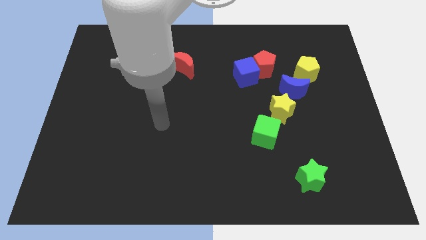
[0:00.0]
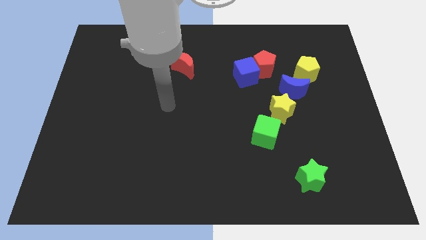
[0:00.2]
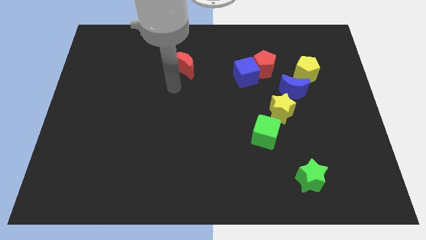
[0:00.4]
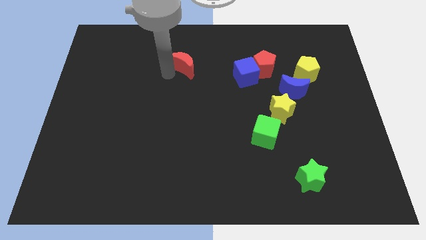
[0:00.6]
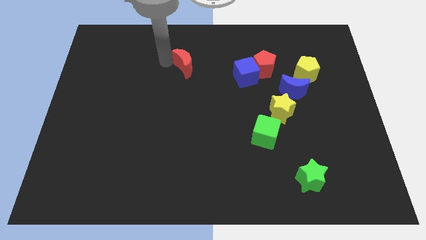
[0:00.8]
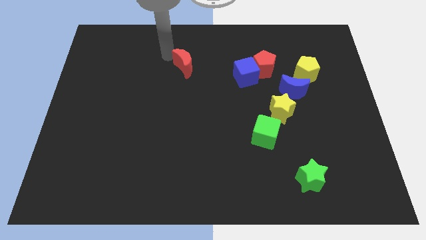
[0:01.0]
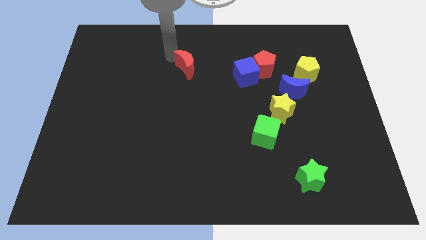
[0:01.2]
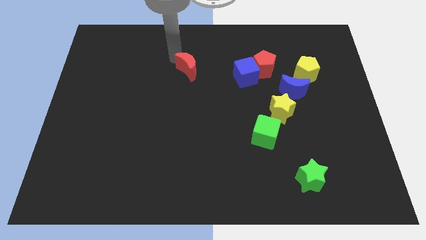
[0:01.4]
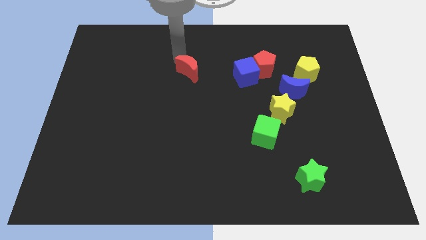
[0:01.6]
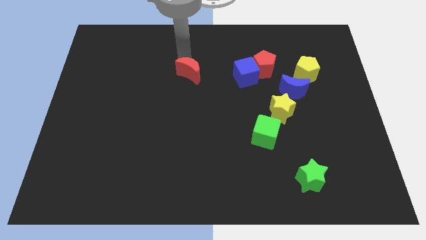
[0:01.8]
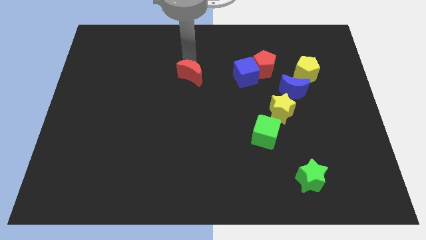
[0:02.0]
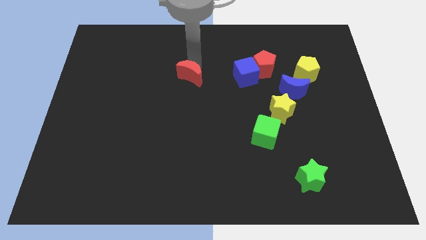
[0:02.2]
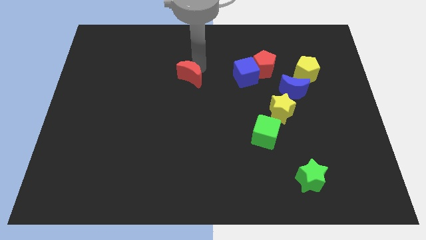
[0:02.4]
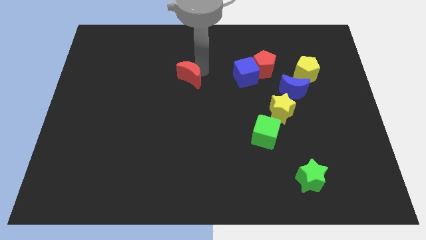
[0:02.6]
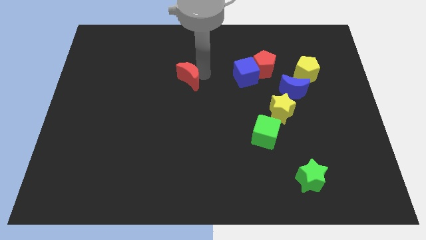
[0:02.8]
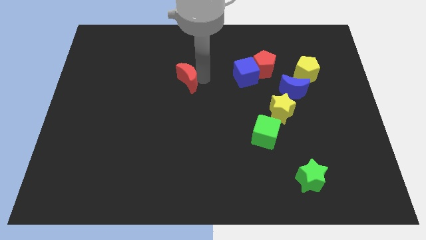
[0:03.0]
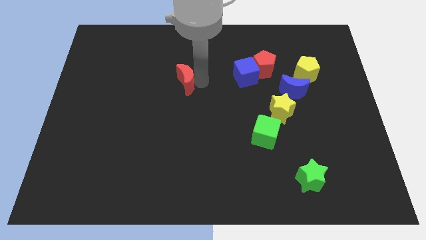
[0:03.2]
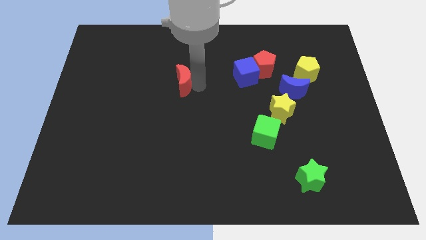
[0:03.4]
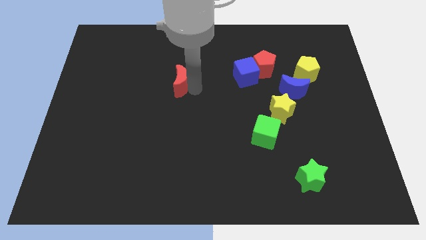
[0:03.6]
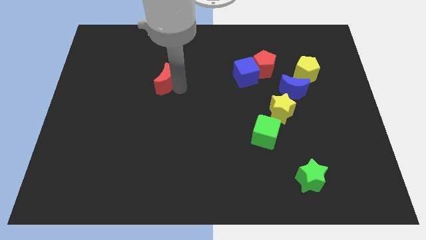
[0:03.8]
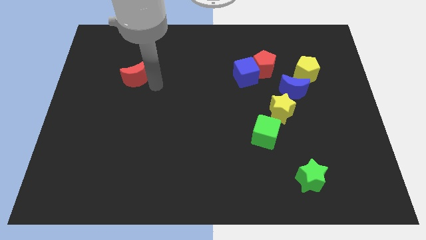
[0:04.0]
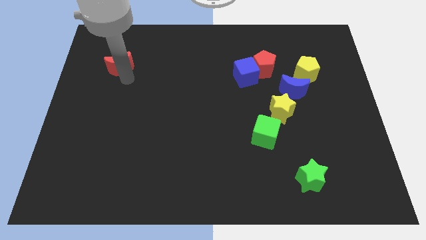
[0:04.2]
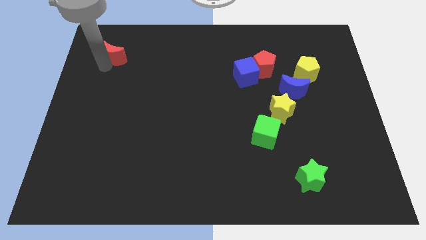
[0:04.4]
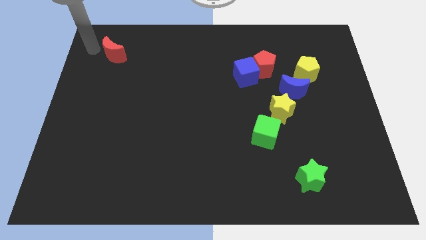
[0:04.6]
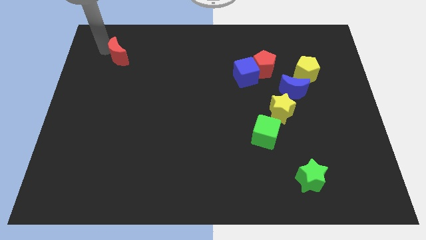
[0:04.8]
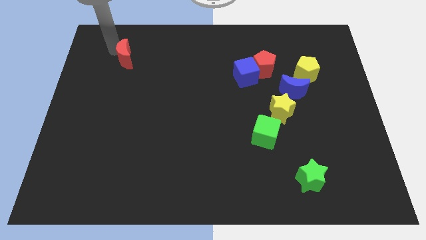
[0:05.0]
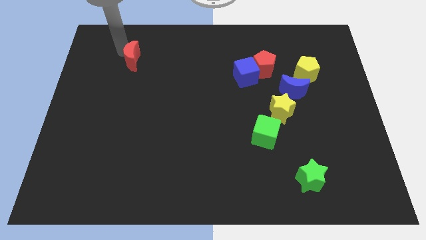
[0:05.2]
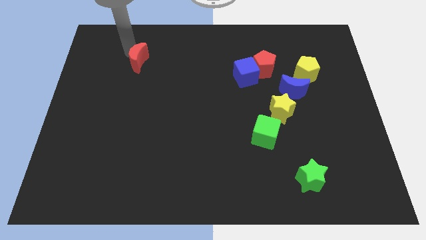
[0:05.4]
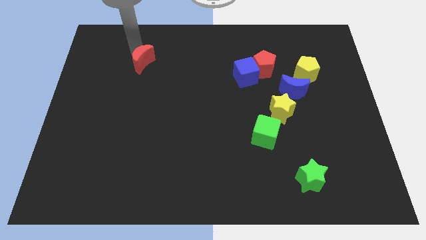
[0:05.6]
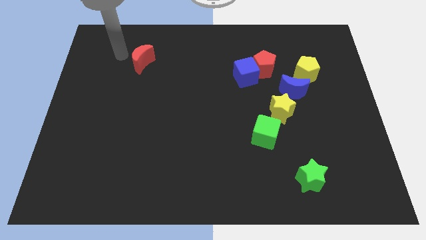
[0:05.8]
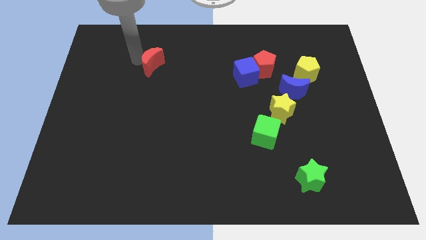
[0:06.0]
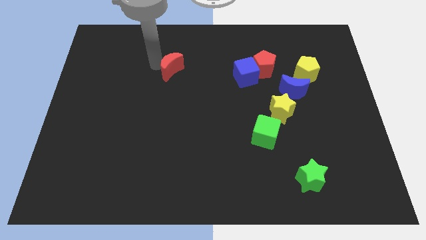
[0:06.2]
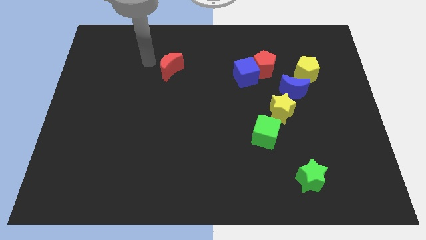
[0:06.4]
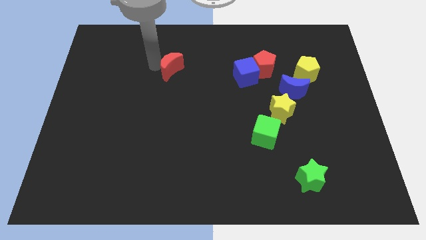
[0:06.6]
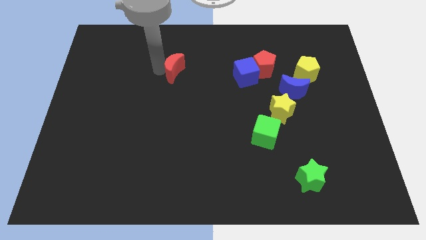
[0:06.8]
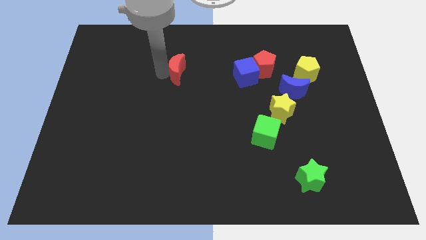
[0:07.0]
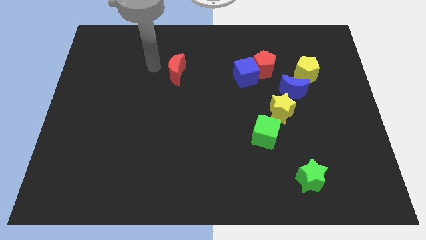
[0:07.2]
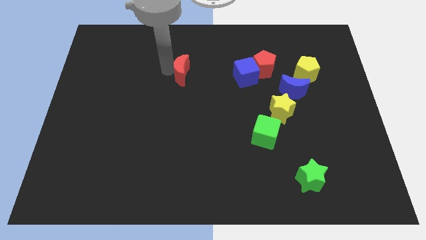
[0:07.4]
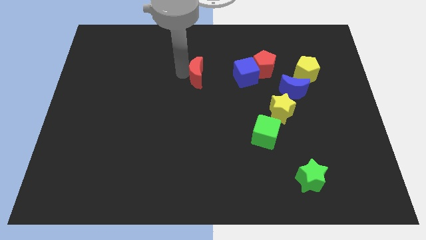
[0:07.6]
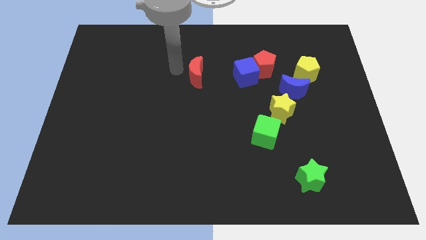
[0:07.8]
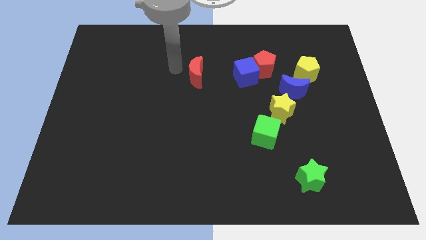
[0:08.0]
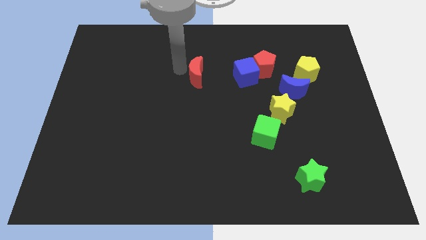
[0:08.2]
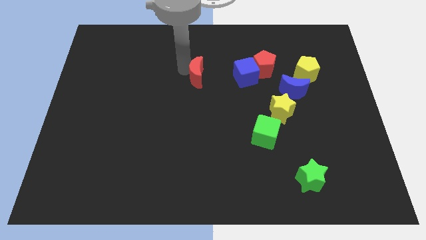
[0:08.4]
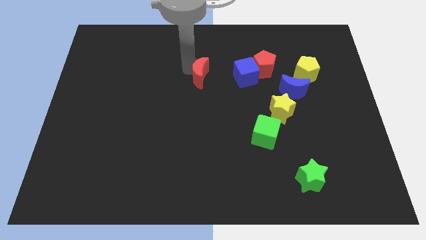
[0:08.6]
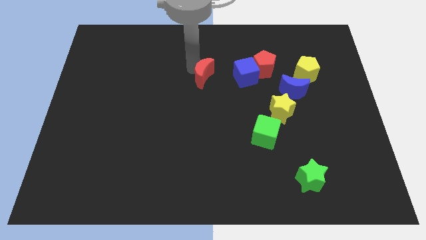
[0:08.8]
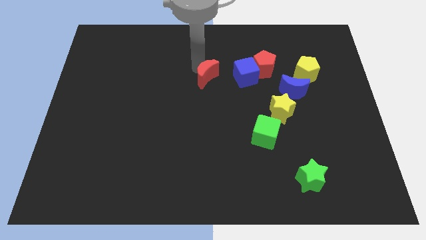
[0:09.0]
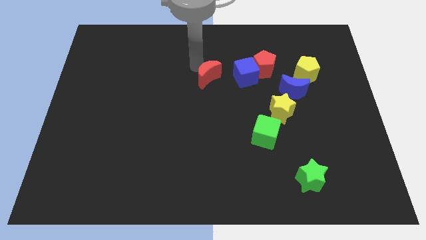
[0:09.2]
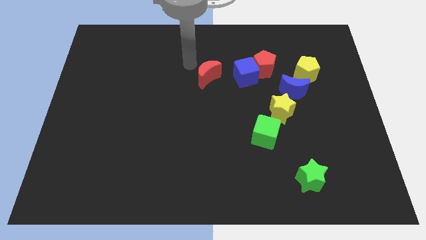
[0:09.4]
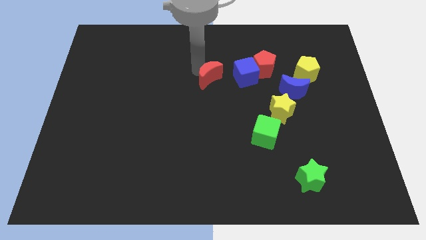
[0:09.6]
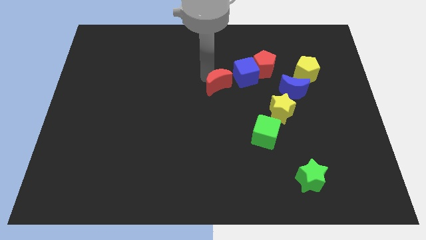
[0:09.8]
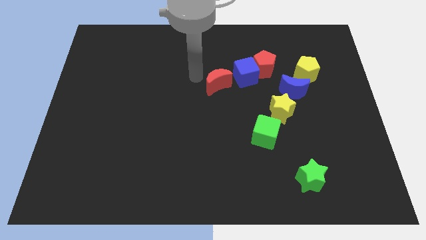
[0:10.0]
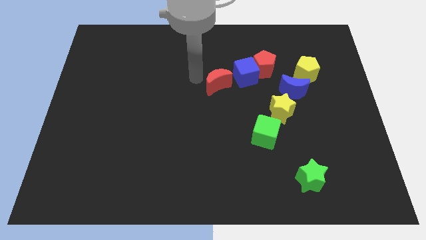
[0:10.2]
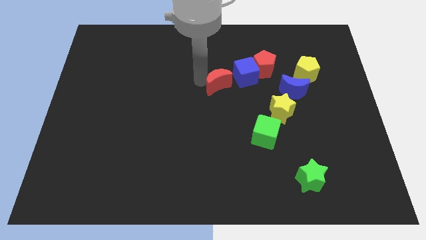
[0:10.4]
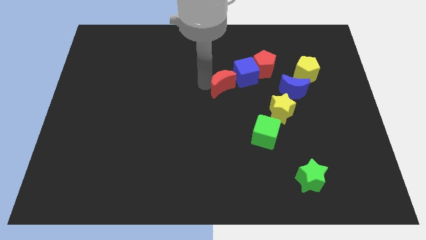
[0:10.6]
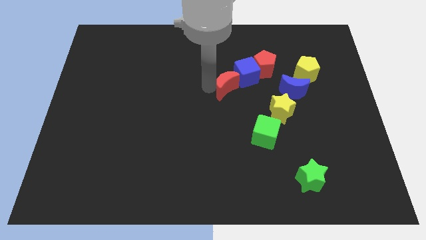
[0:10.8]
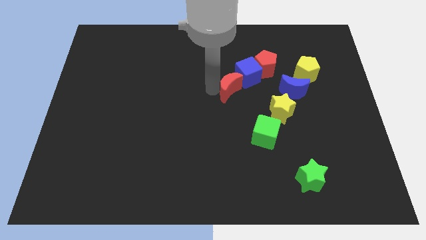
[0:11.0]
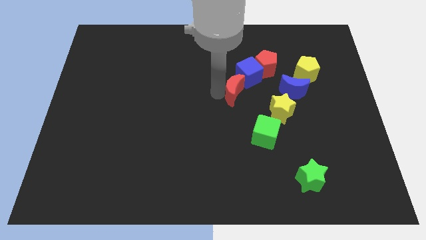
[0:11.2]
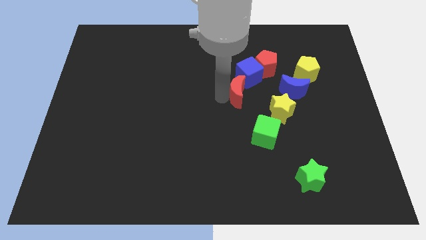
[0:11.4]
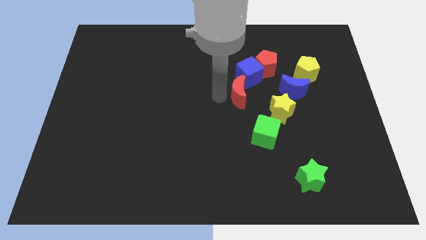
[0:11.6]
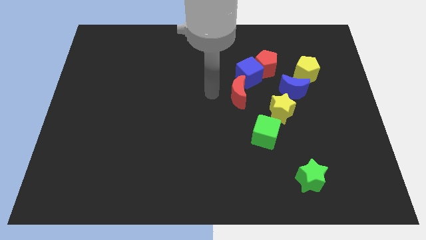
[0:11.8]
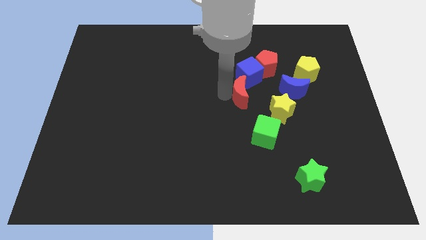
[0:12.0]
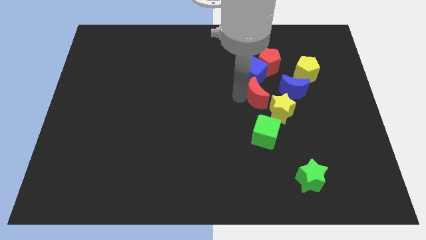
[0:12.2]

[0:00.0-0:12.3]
push the red moon to the bottom of the red pentagon

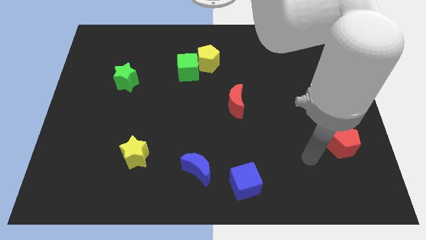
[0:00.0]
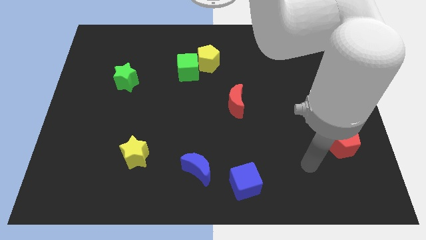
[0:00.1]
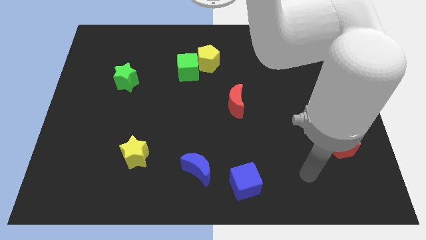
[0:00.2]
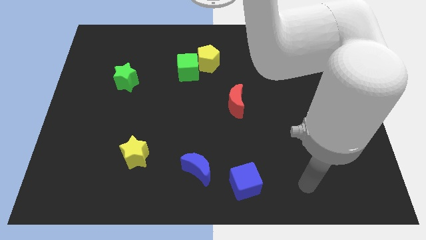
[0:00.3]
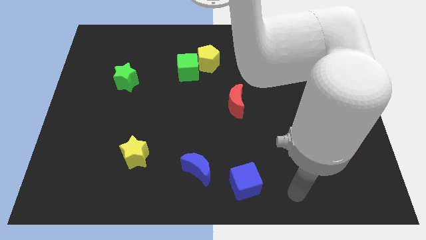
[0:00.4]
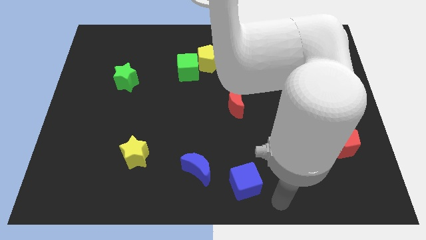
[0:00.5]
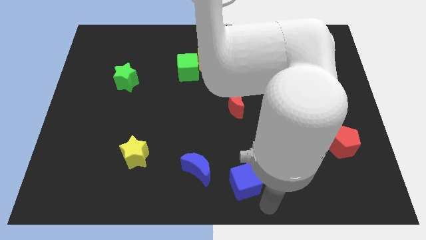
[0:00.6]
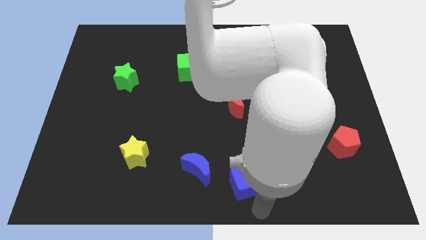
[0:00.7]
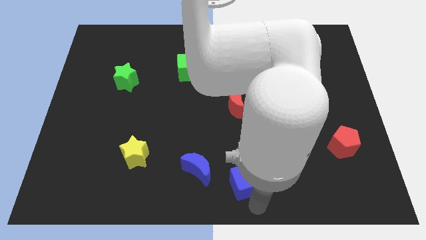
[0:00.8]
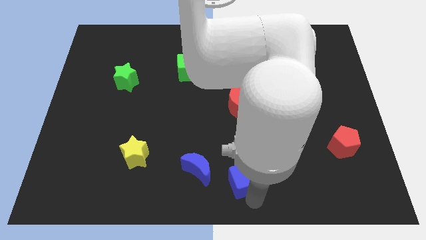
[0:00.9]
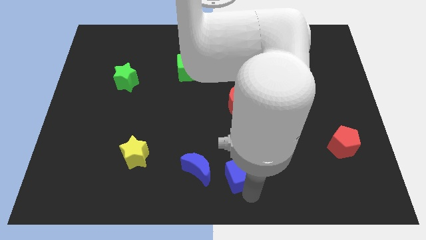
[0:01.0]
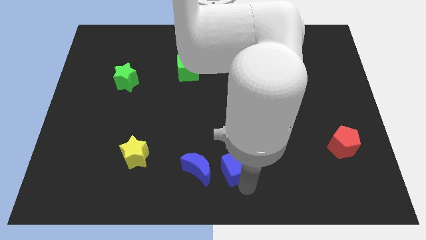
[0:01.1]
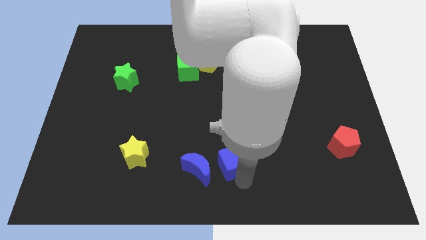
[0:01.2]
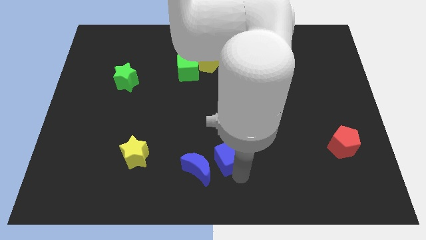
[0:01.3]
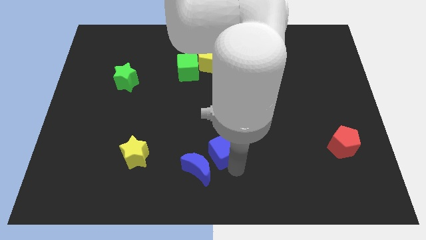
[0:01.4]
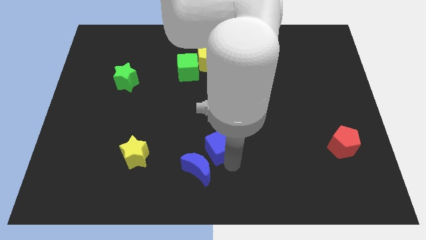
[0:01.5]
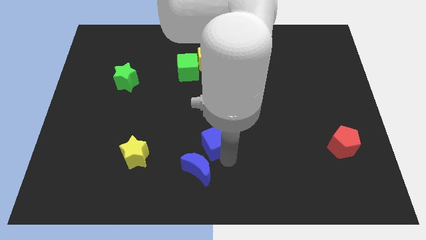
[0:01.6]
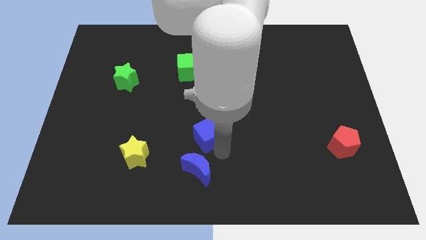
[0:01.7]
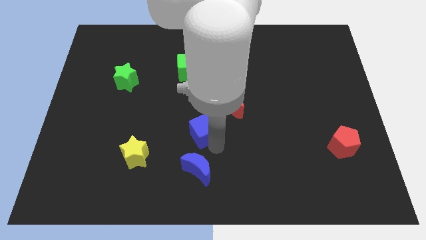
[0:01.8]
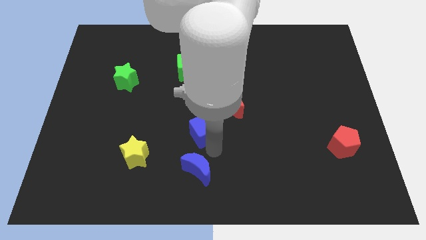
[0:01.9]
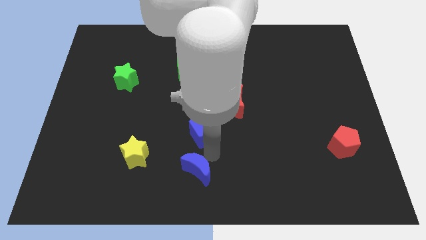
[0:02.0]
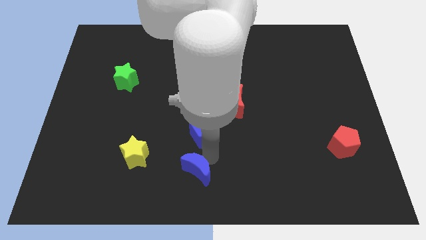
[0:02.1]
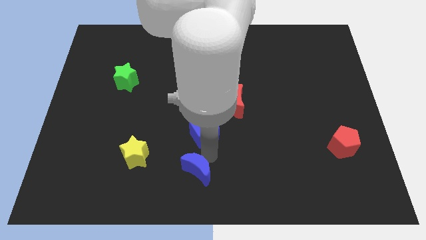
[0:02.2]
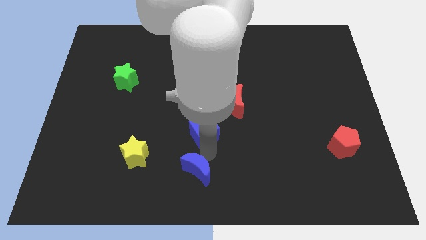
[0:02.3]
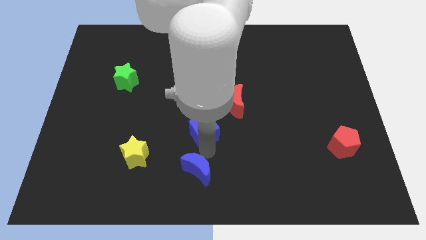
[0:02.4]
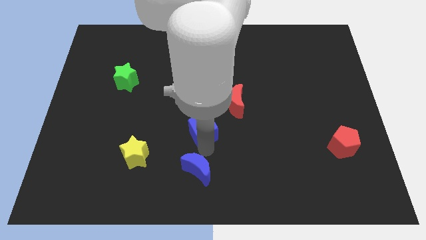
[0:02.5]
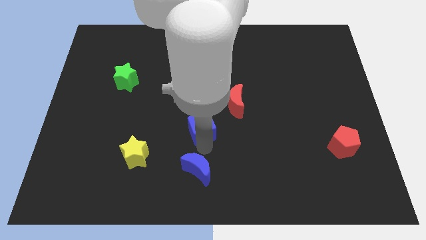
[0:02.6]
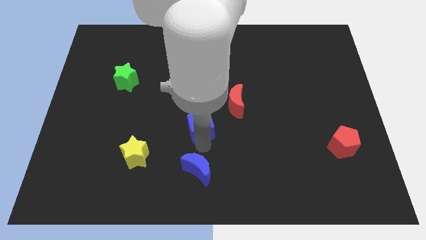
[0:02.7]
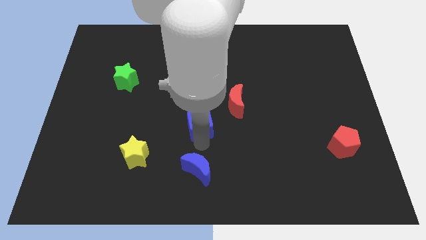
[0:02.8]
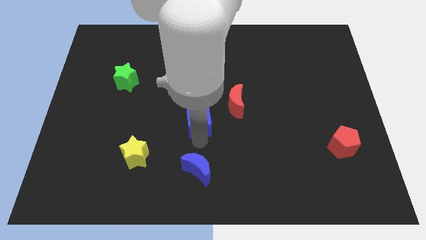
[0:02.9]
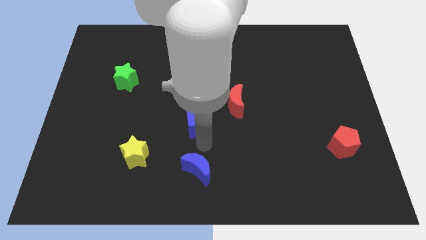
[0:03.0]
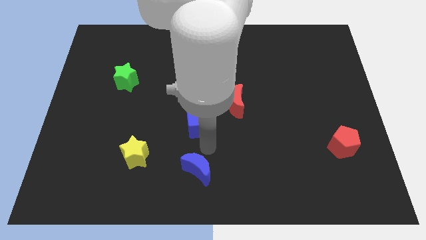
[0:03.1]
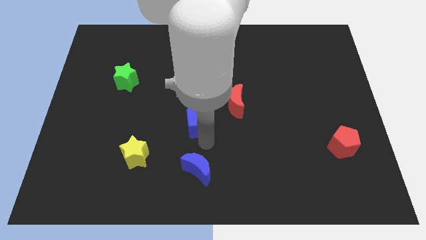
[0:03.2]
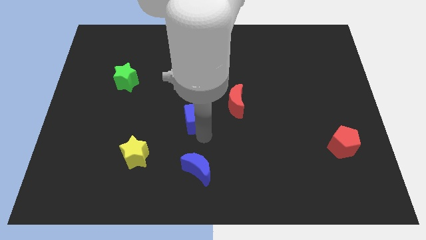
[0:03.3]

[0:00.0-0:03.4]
put the blue cube left of the red moon
